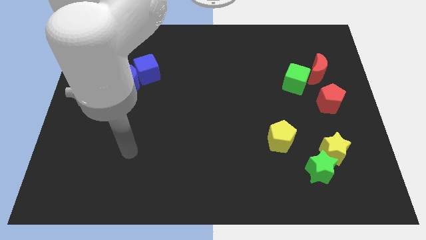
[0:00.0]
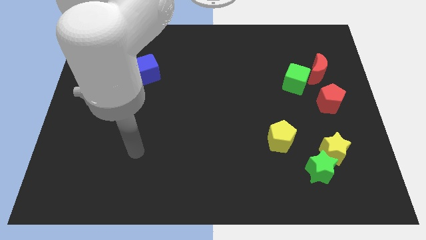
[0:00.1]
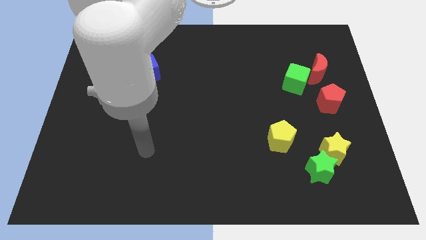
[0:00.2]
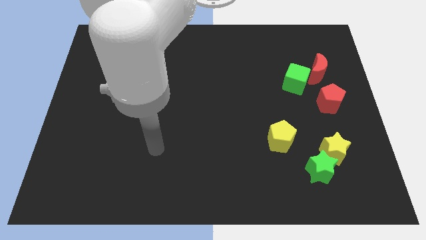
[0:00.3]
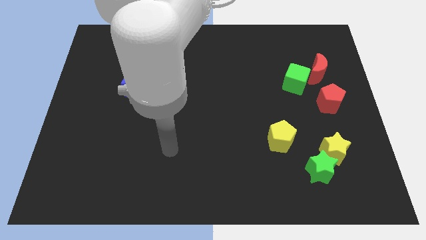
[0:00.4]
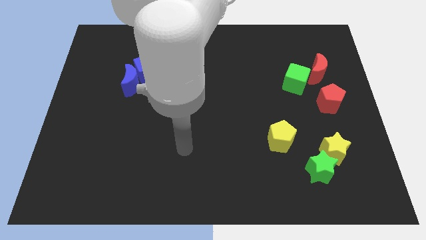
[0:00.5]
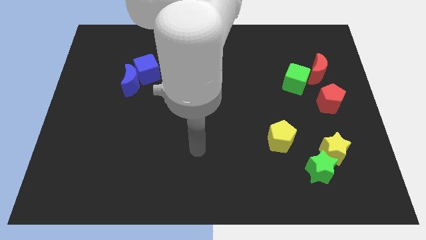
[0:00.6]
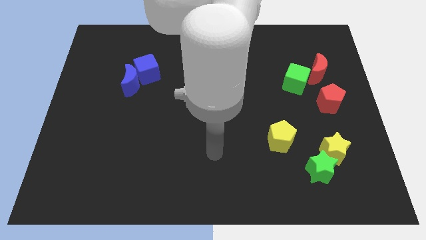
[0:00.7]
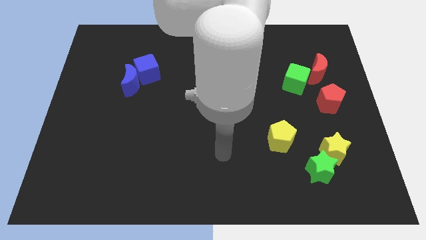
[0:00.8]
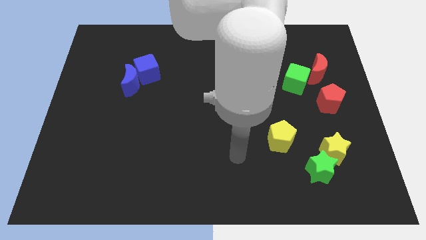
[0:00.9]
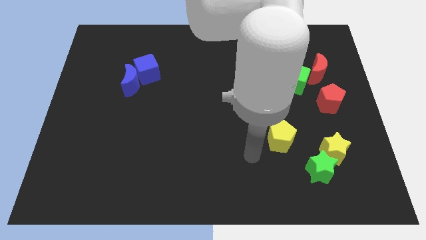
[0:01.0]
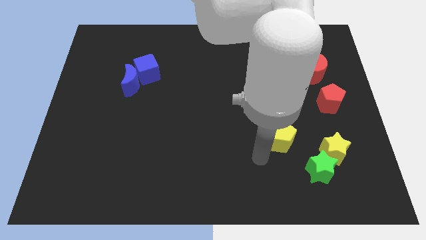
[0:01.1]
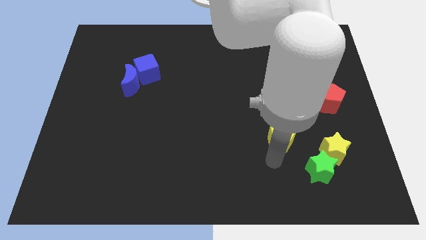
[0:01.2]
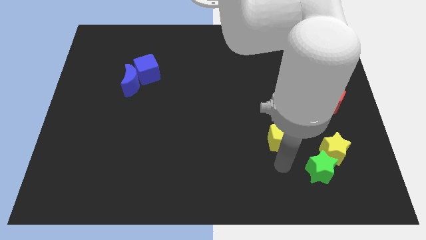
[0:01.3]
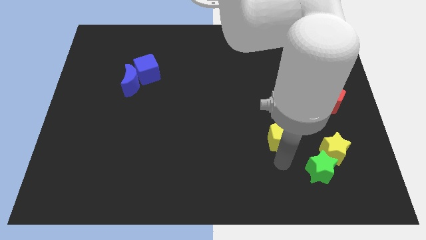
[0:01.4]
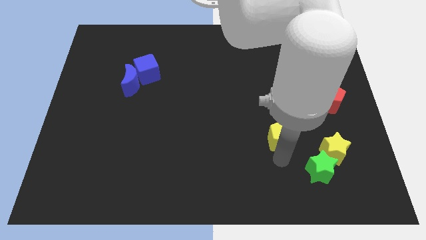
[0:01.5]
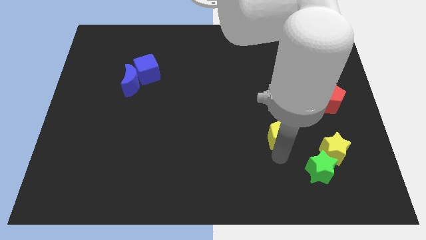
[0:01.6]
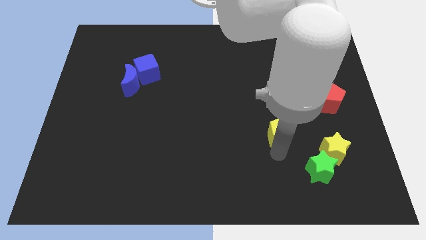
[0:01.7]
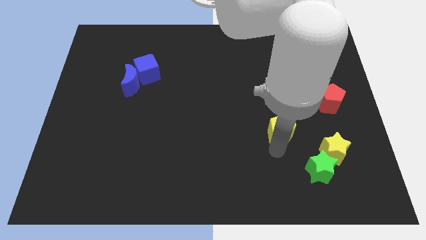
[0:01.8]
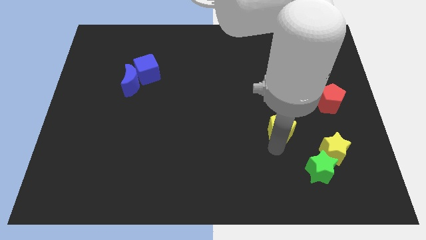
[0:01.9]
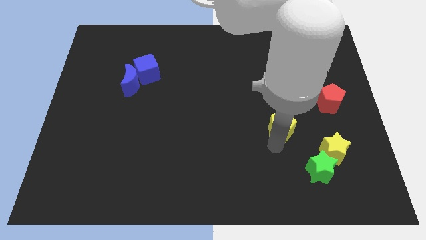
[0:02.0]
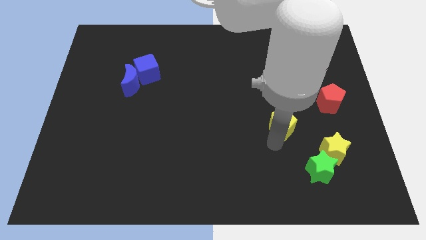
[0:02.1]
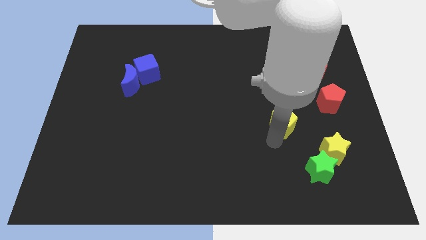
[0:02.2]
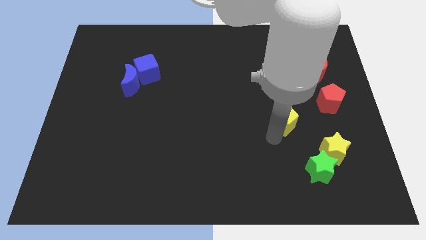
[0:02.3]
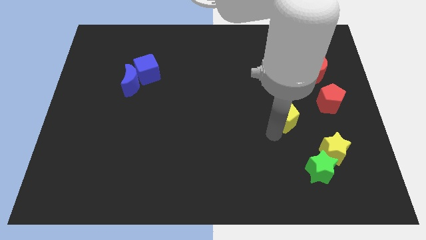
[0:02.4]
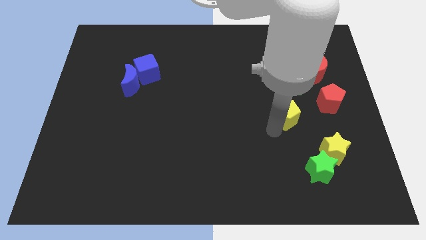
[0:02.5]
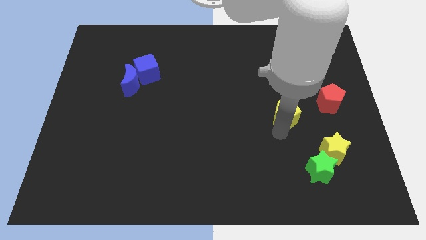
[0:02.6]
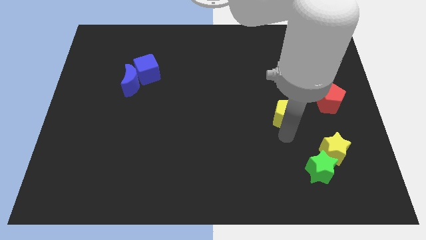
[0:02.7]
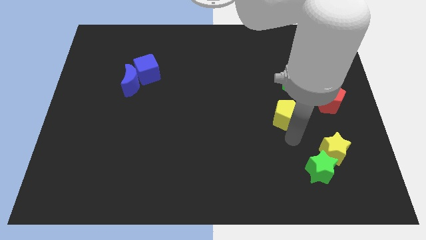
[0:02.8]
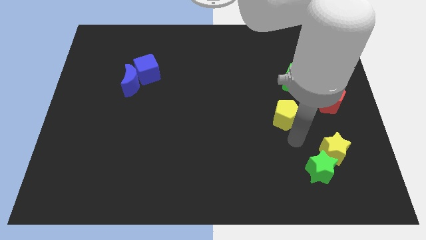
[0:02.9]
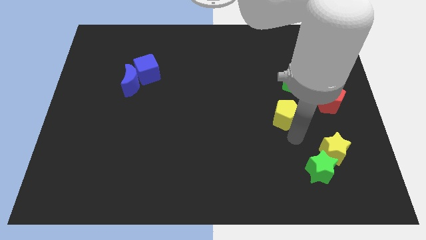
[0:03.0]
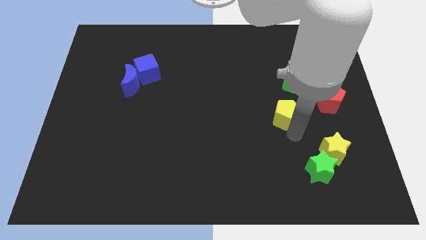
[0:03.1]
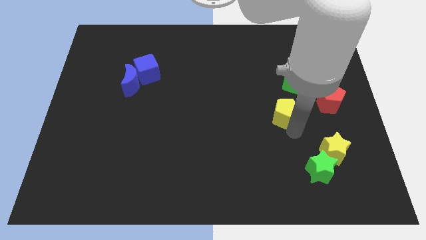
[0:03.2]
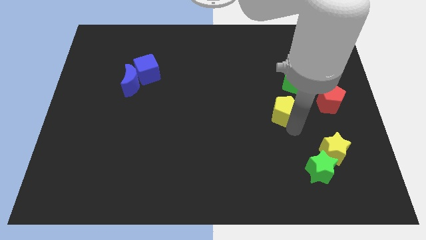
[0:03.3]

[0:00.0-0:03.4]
push the yellow pentagon somewhat upwards

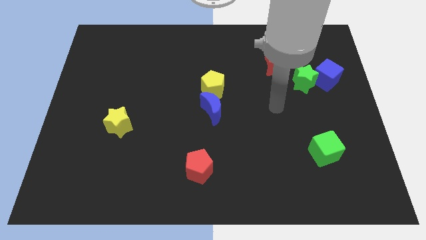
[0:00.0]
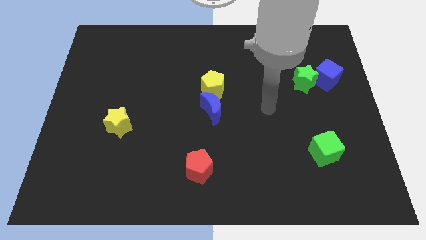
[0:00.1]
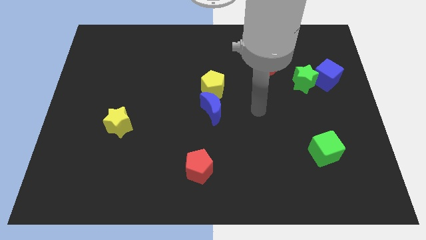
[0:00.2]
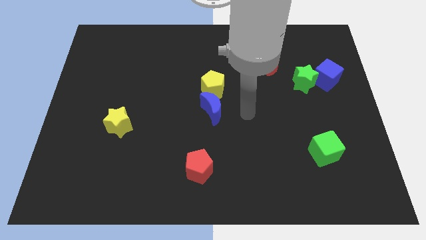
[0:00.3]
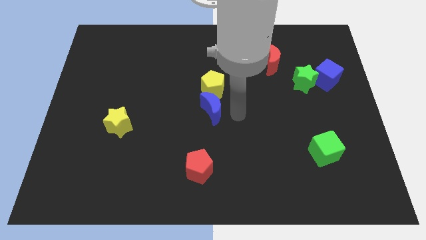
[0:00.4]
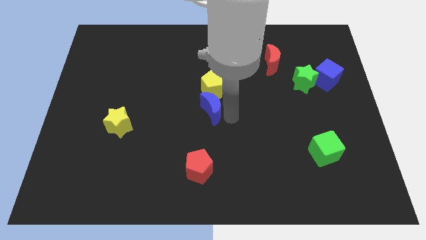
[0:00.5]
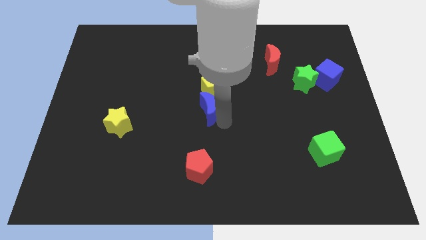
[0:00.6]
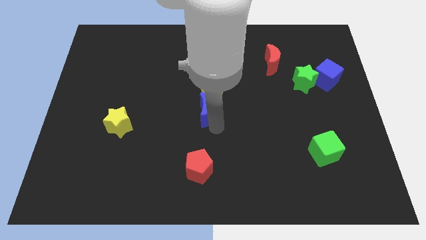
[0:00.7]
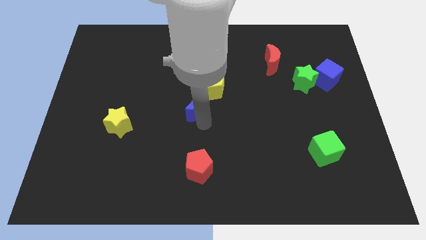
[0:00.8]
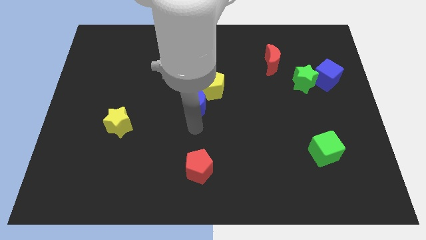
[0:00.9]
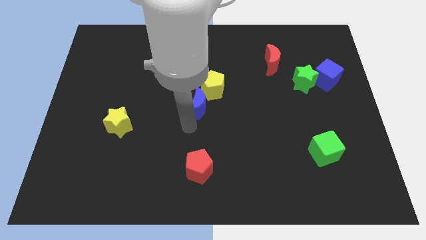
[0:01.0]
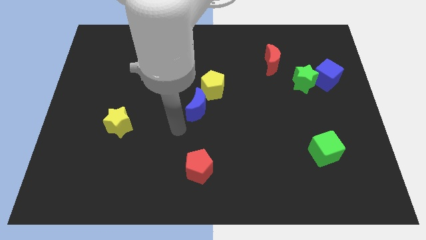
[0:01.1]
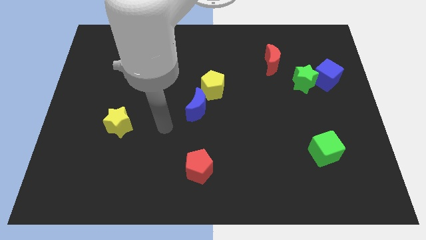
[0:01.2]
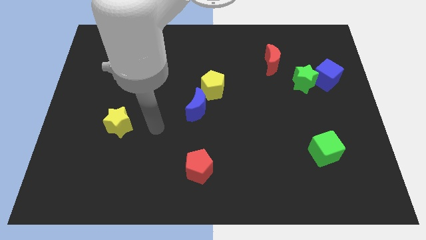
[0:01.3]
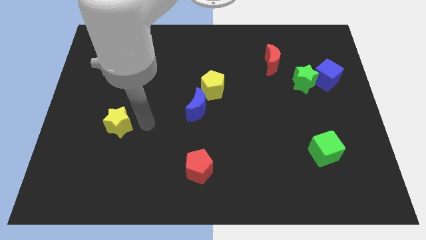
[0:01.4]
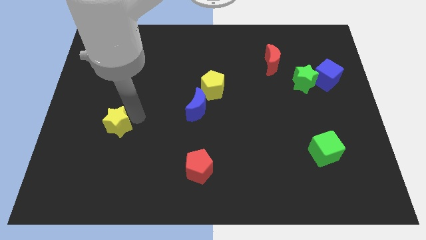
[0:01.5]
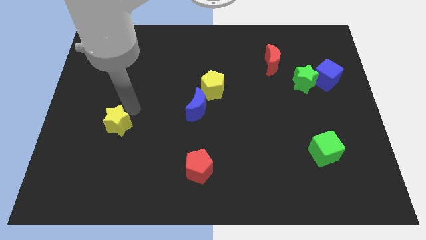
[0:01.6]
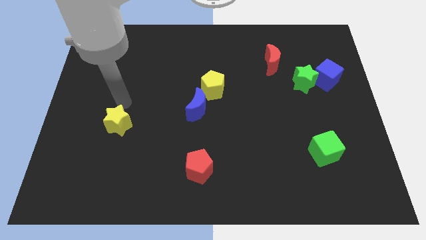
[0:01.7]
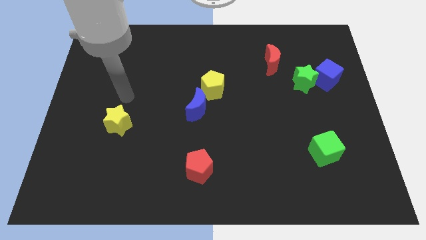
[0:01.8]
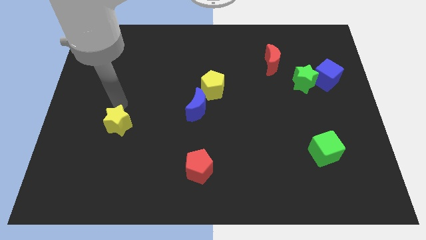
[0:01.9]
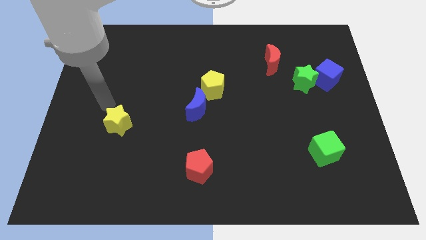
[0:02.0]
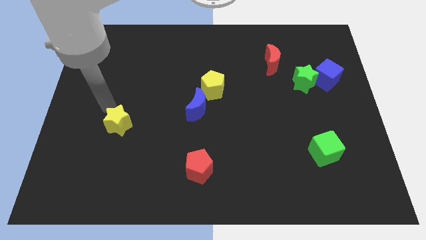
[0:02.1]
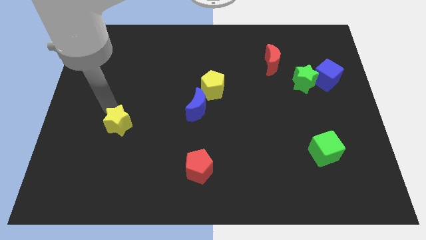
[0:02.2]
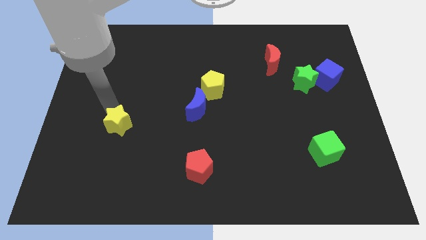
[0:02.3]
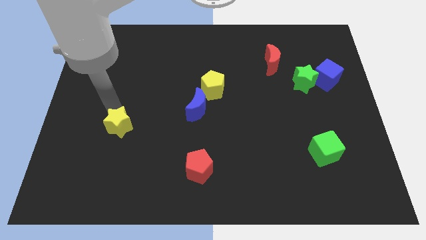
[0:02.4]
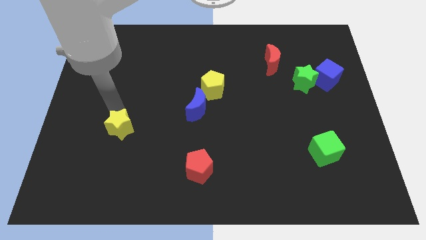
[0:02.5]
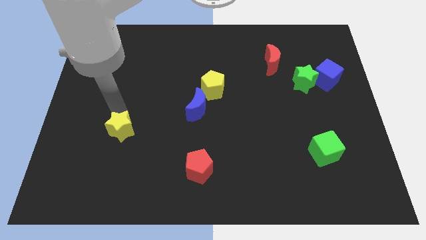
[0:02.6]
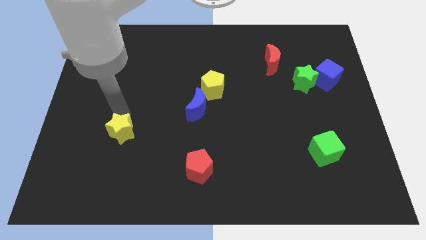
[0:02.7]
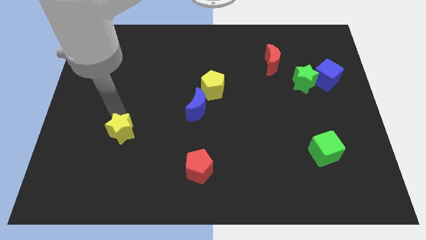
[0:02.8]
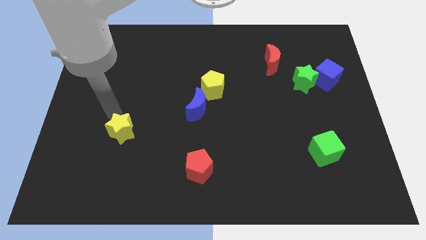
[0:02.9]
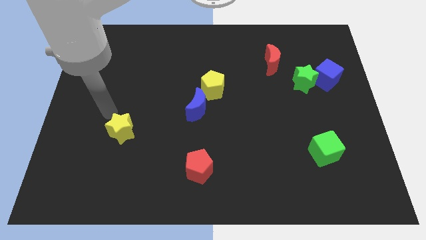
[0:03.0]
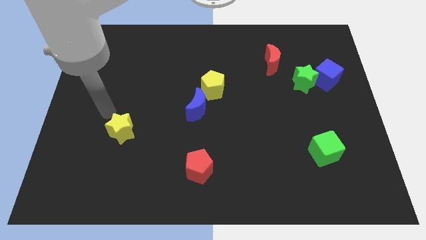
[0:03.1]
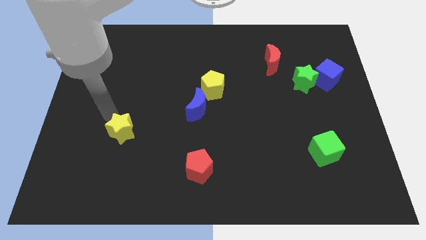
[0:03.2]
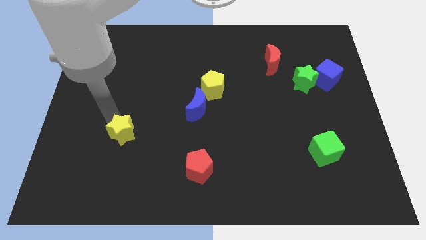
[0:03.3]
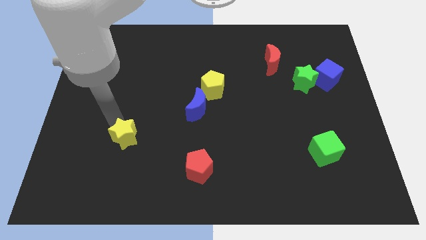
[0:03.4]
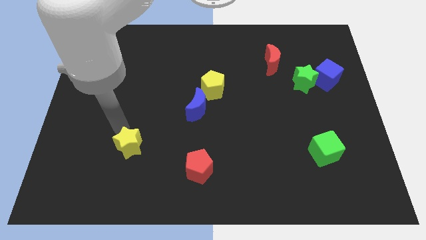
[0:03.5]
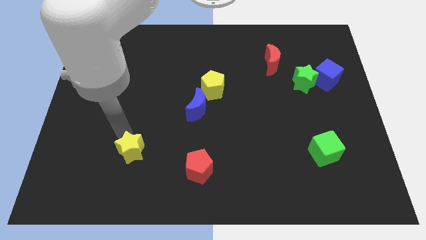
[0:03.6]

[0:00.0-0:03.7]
slightly move the yellow star downwards and then right

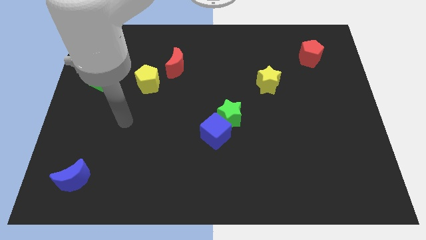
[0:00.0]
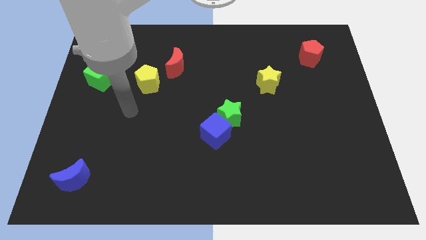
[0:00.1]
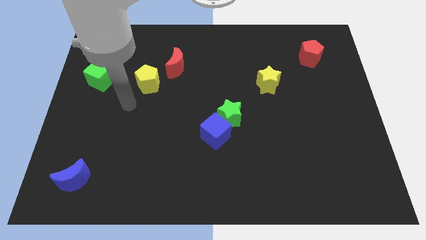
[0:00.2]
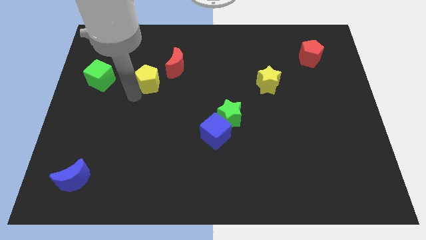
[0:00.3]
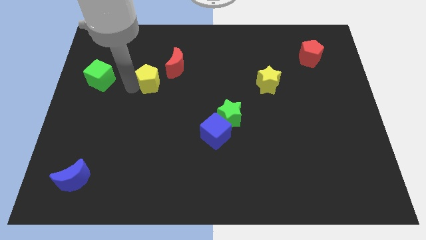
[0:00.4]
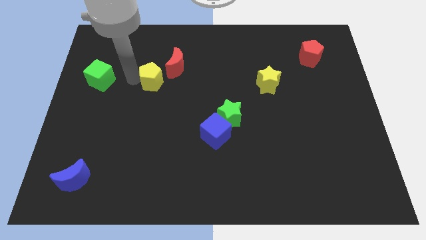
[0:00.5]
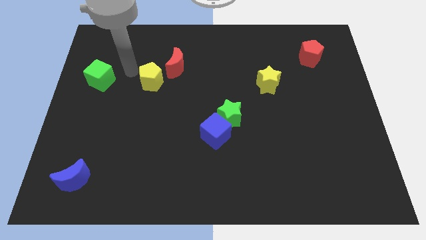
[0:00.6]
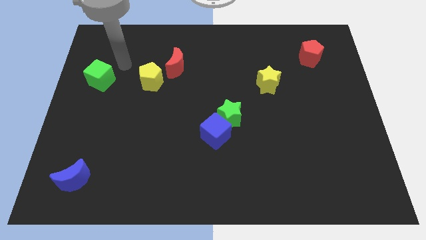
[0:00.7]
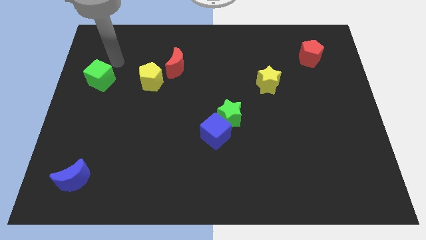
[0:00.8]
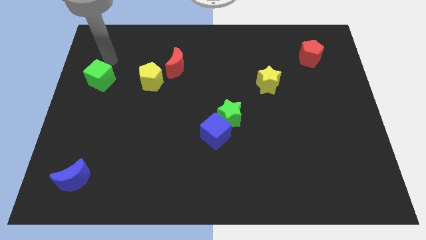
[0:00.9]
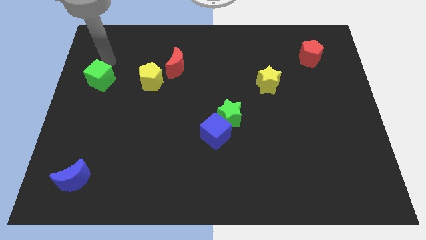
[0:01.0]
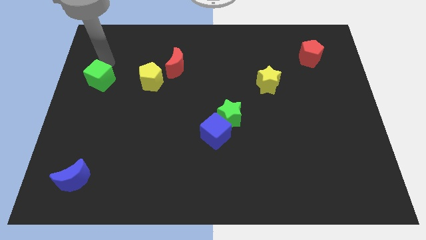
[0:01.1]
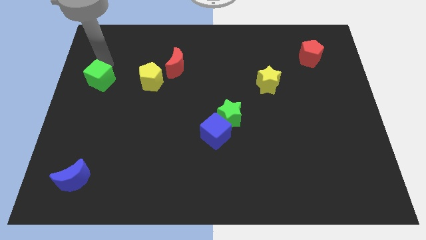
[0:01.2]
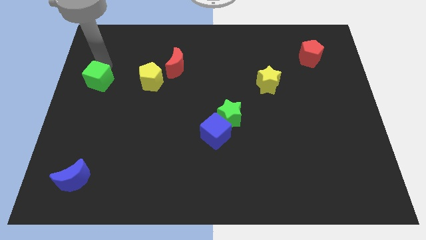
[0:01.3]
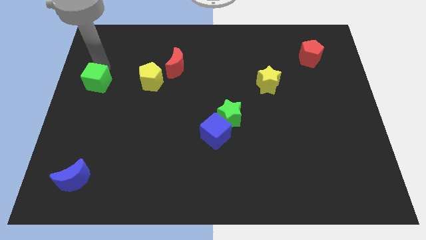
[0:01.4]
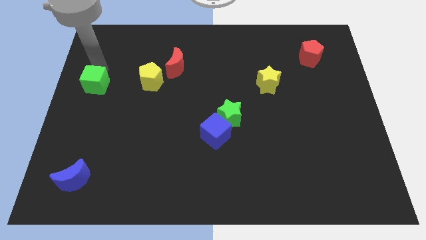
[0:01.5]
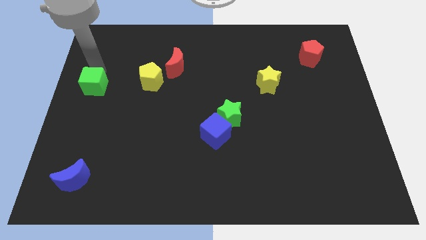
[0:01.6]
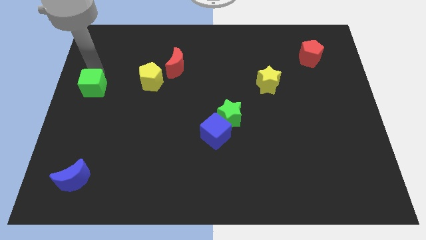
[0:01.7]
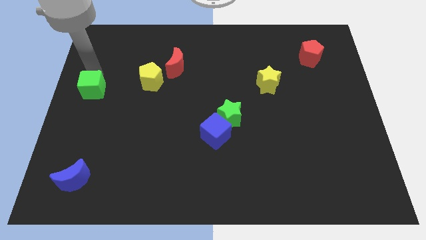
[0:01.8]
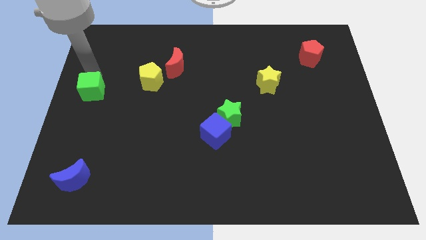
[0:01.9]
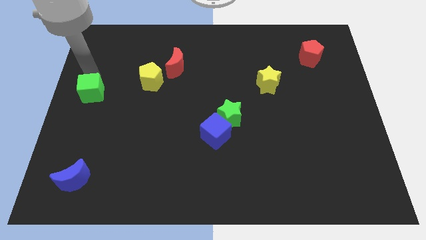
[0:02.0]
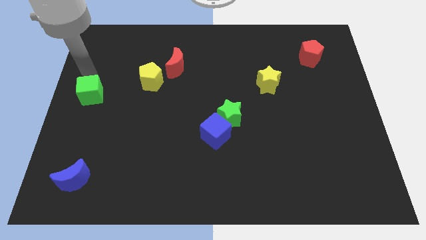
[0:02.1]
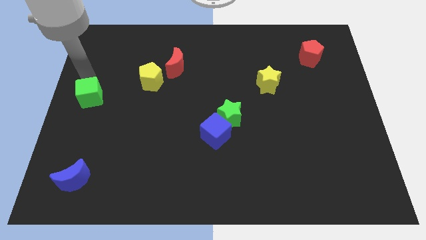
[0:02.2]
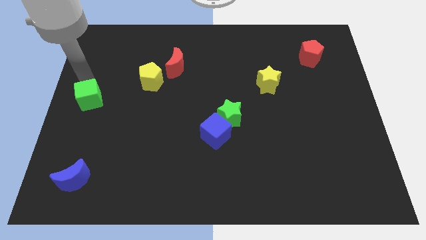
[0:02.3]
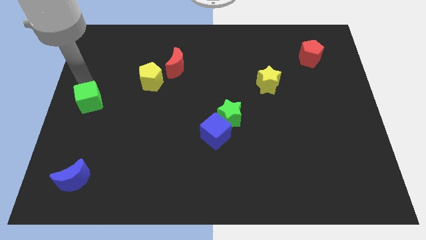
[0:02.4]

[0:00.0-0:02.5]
slightly slide the green cube down
